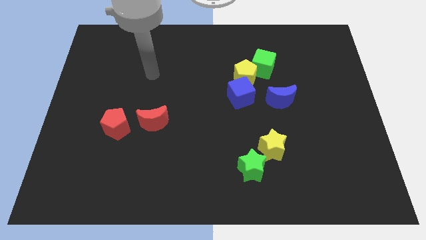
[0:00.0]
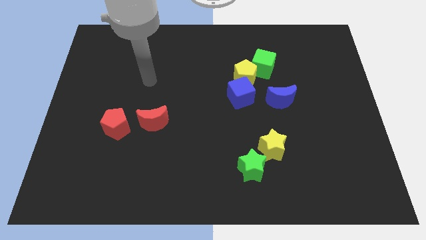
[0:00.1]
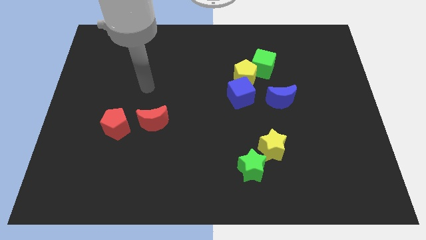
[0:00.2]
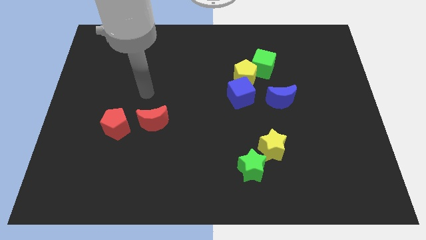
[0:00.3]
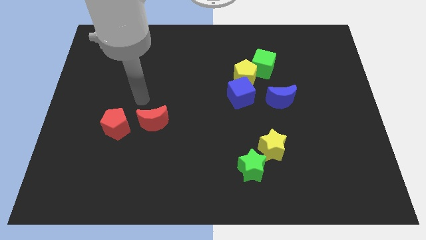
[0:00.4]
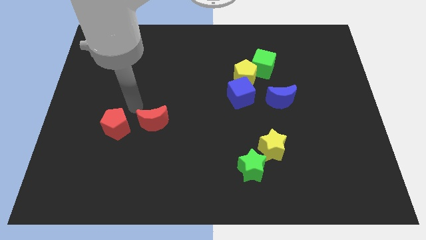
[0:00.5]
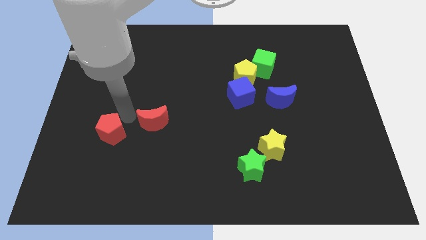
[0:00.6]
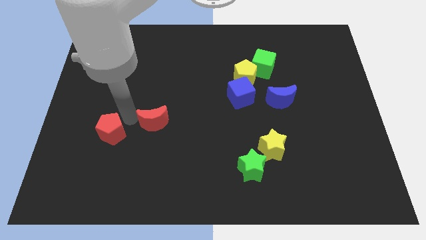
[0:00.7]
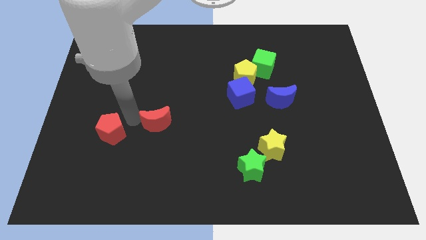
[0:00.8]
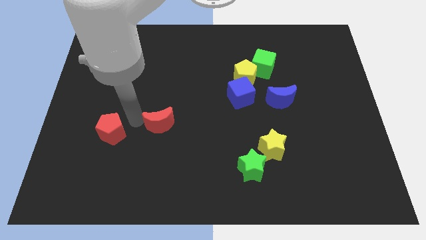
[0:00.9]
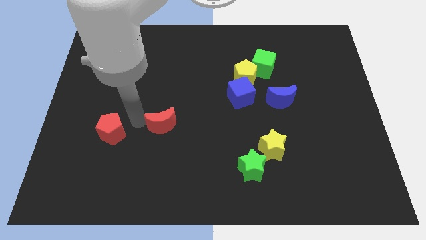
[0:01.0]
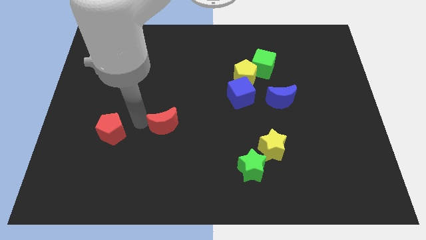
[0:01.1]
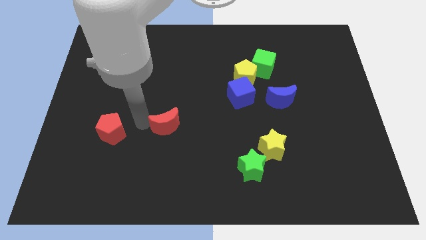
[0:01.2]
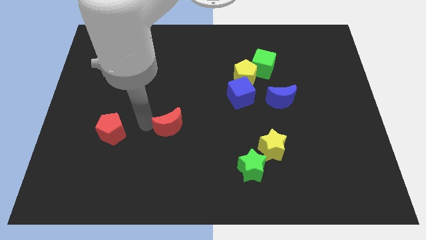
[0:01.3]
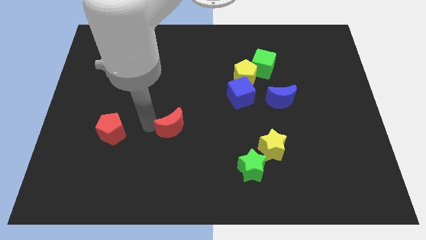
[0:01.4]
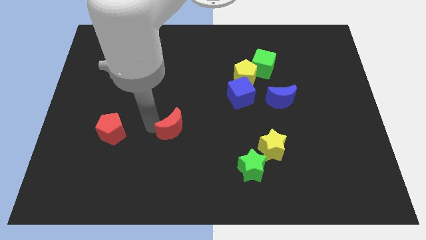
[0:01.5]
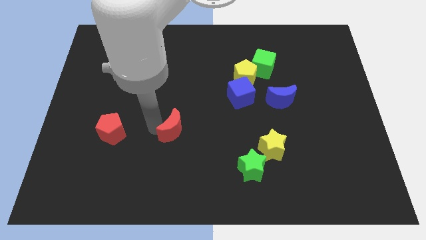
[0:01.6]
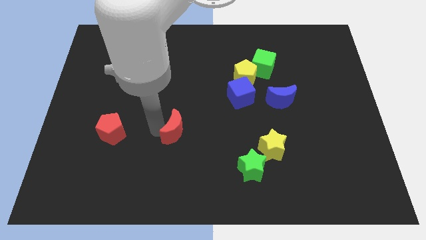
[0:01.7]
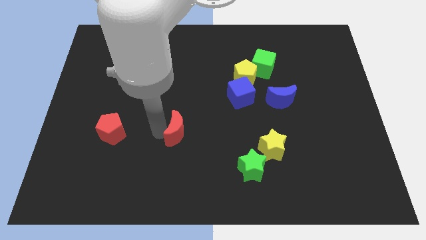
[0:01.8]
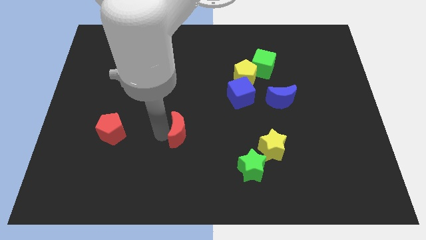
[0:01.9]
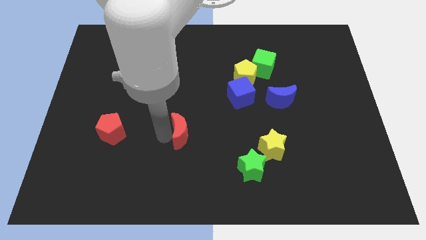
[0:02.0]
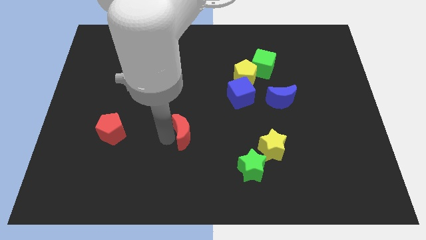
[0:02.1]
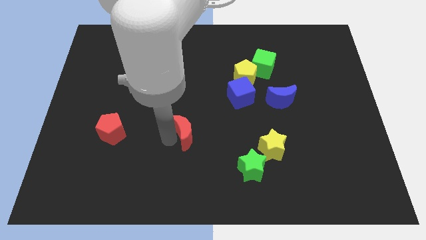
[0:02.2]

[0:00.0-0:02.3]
slide the red moon a little to the right

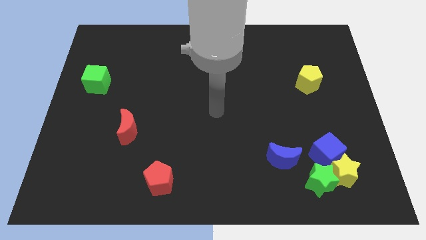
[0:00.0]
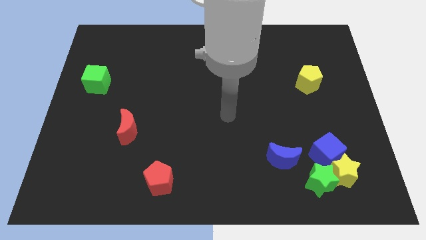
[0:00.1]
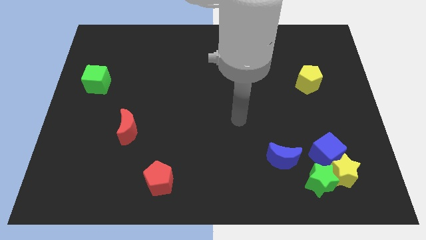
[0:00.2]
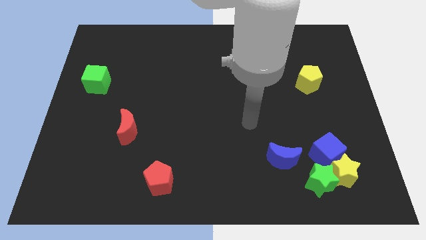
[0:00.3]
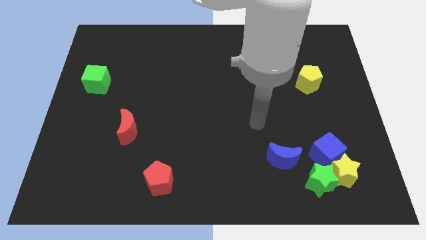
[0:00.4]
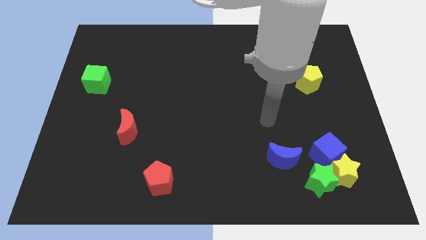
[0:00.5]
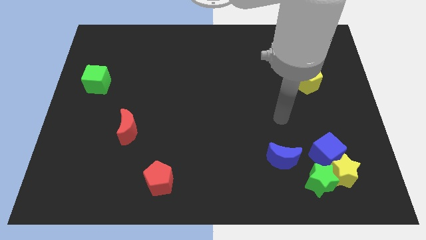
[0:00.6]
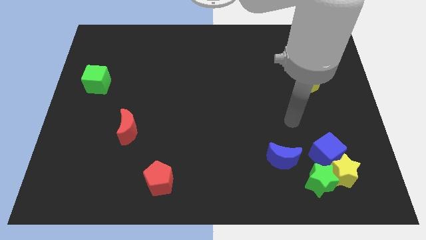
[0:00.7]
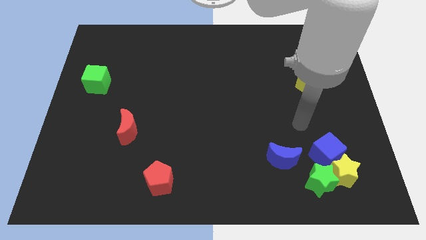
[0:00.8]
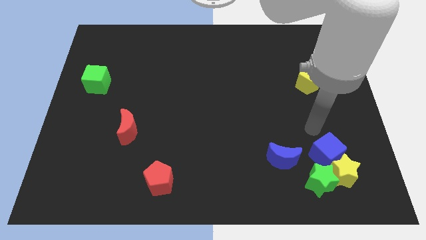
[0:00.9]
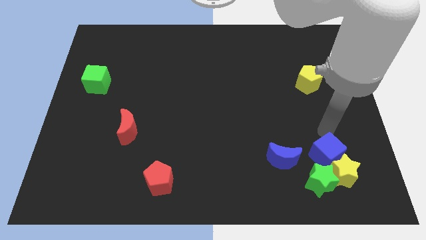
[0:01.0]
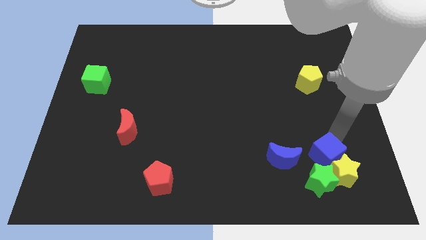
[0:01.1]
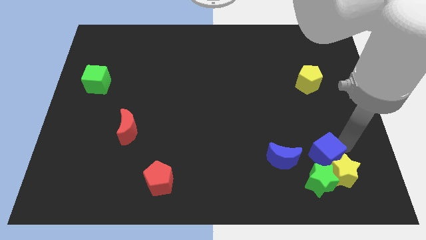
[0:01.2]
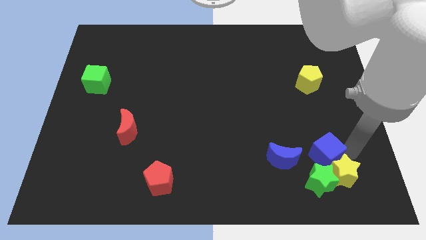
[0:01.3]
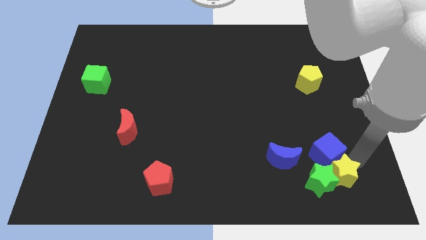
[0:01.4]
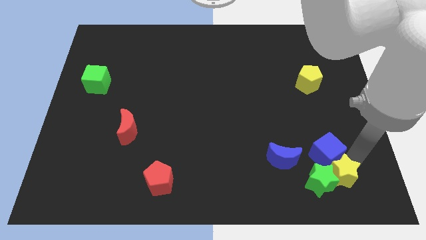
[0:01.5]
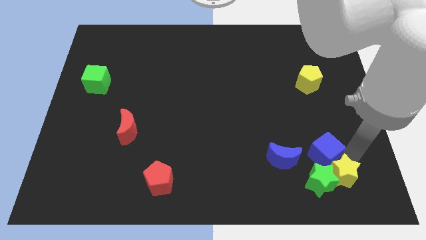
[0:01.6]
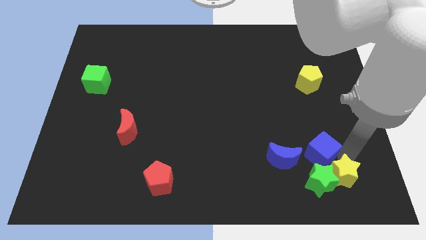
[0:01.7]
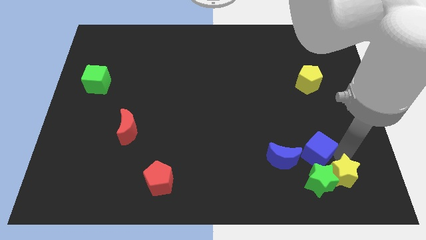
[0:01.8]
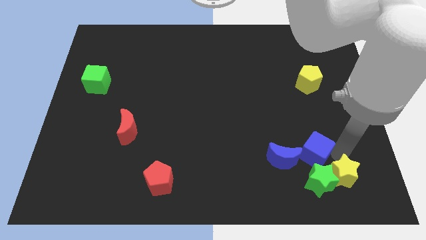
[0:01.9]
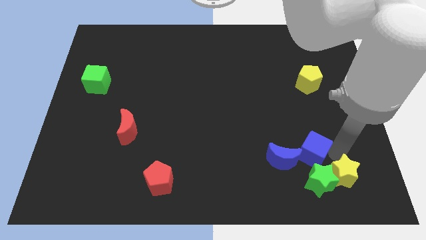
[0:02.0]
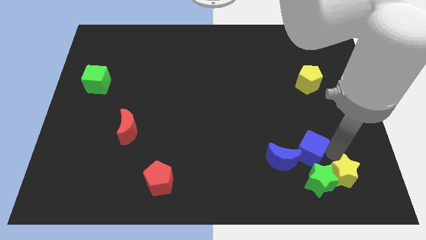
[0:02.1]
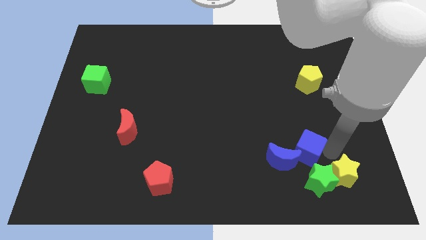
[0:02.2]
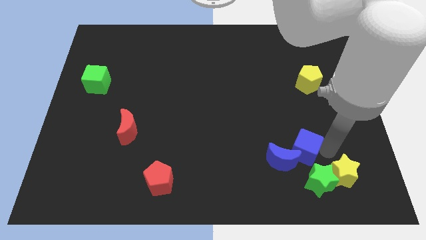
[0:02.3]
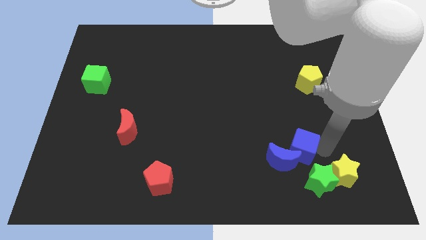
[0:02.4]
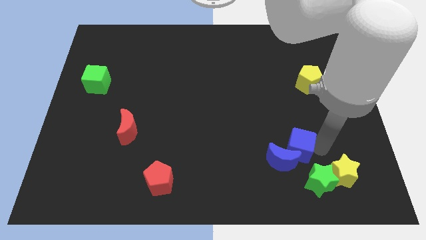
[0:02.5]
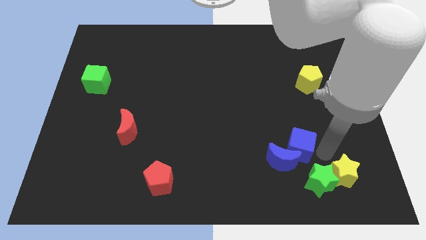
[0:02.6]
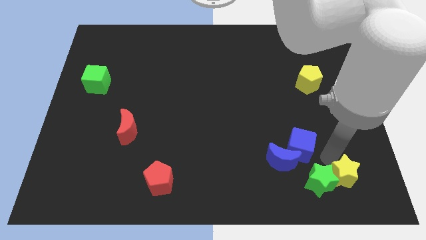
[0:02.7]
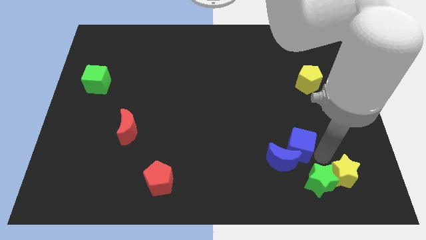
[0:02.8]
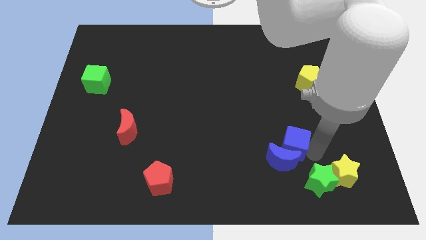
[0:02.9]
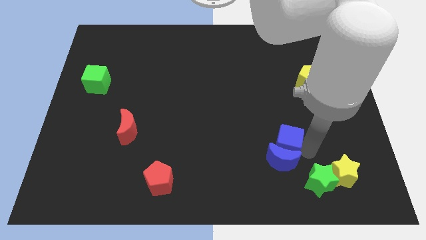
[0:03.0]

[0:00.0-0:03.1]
move the blue cube to the left a little bit

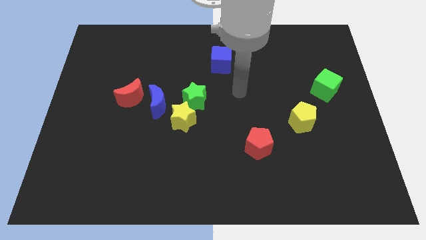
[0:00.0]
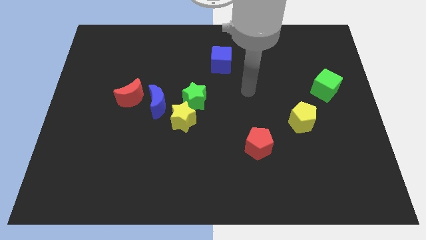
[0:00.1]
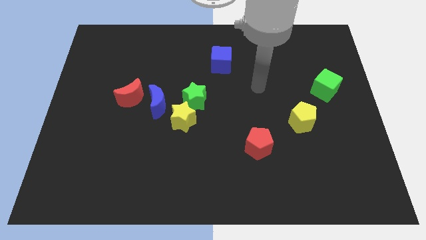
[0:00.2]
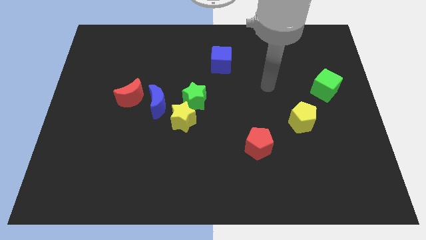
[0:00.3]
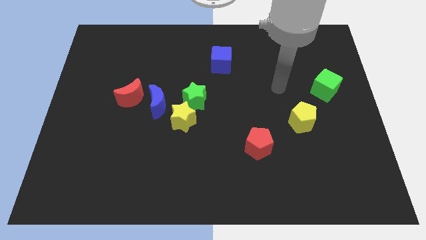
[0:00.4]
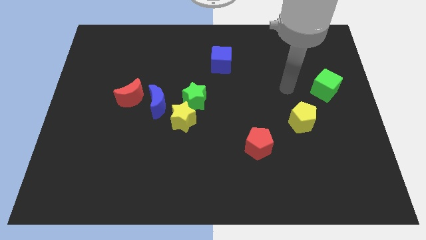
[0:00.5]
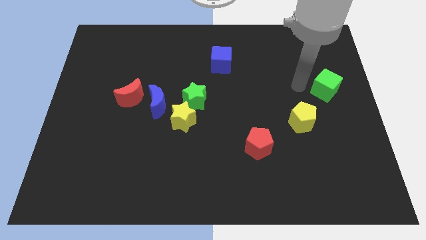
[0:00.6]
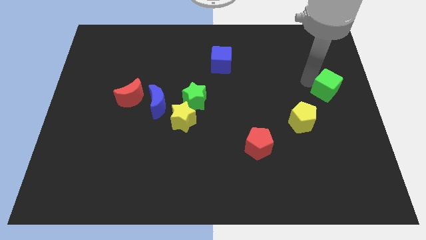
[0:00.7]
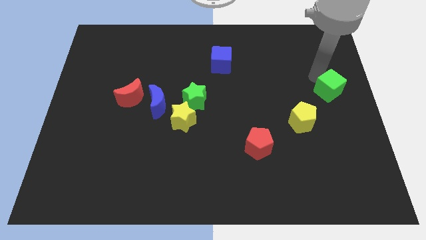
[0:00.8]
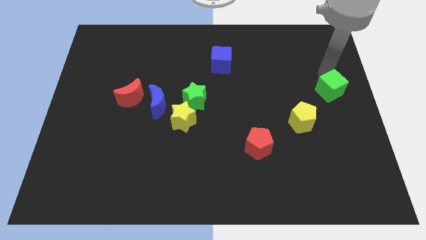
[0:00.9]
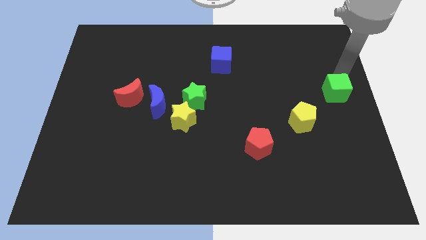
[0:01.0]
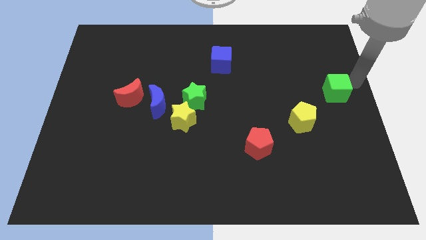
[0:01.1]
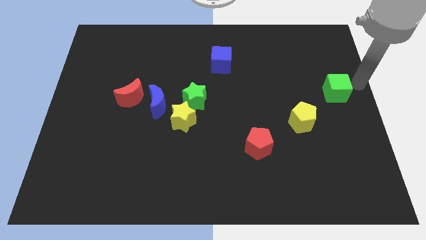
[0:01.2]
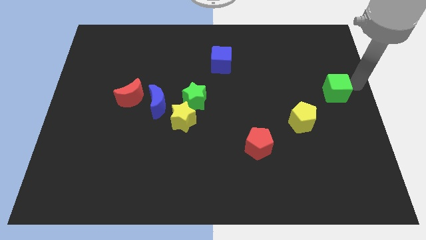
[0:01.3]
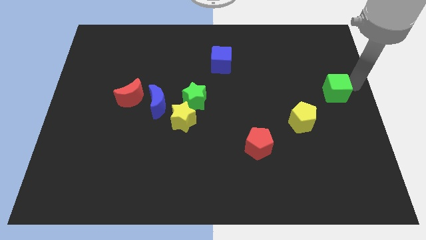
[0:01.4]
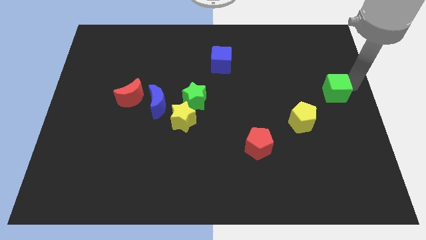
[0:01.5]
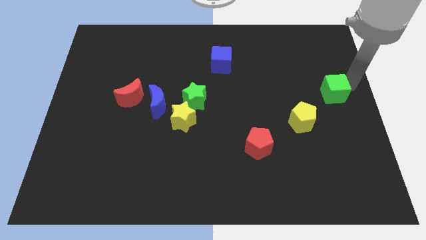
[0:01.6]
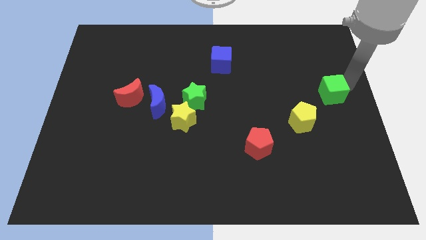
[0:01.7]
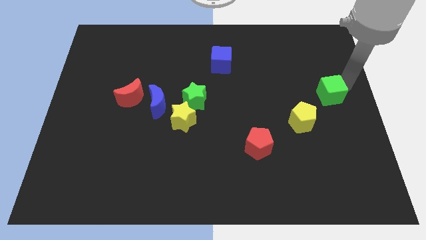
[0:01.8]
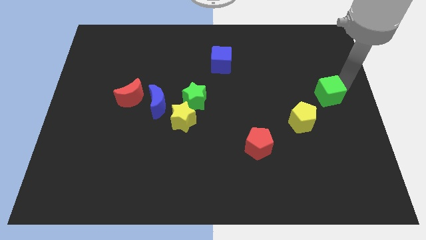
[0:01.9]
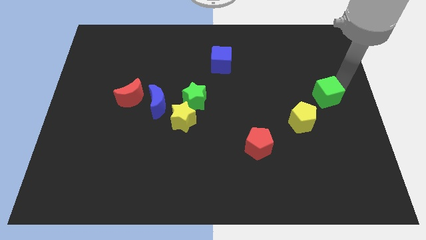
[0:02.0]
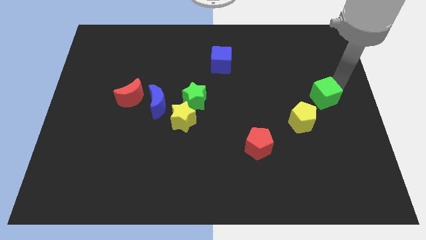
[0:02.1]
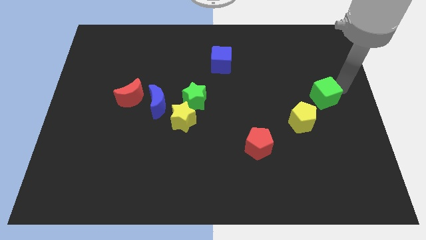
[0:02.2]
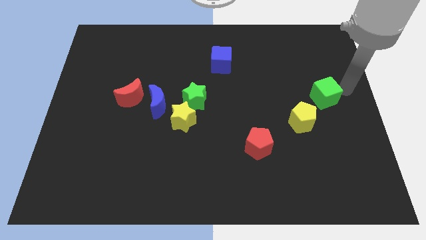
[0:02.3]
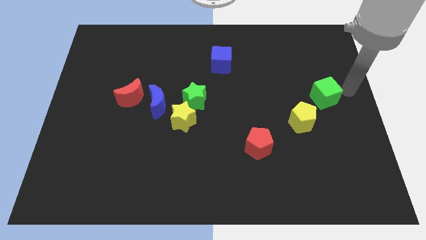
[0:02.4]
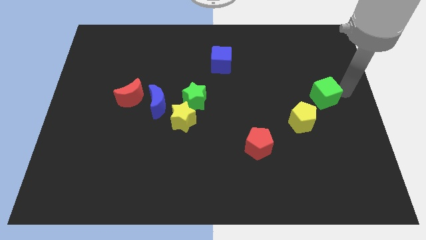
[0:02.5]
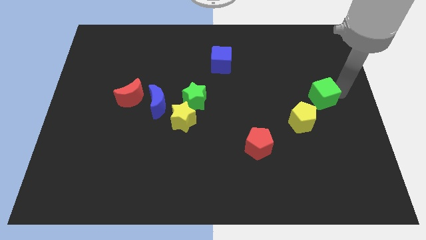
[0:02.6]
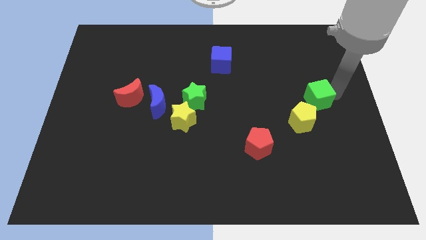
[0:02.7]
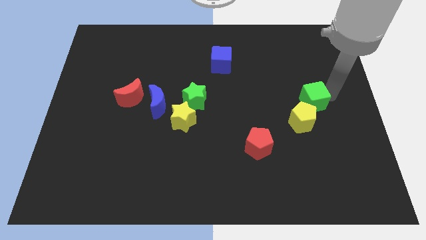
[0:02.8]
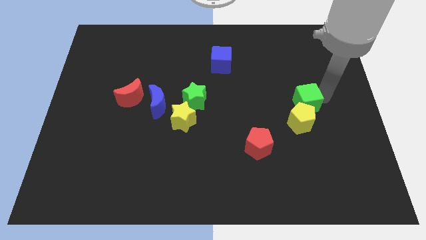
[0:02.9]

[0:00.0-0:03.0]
push the green cube downwards and left a bit
